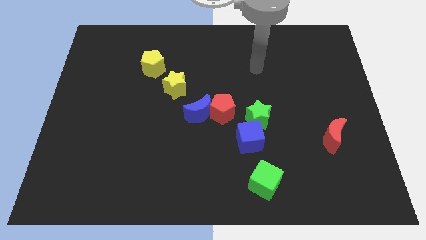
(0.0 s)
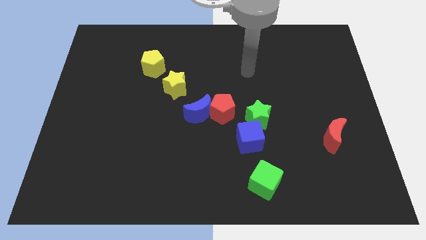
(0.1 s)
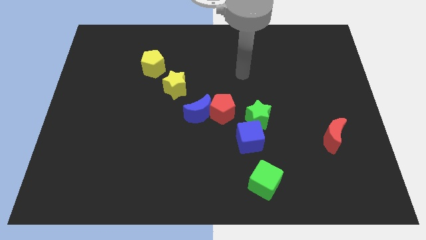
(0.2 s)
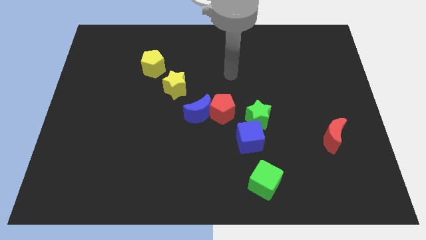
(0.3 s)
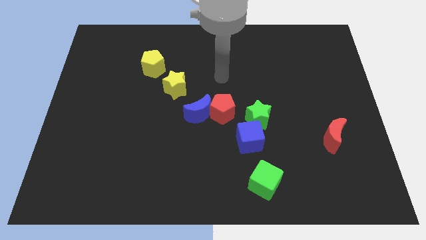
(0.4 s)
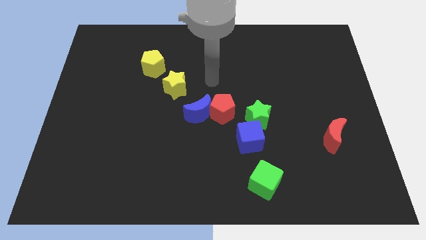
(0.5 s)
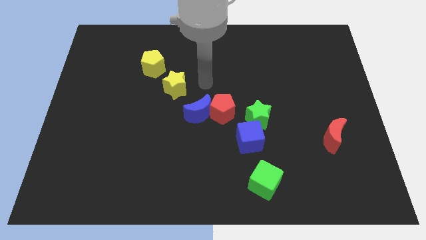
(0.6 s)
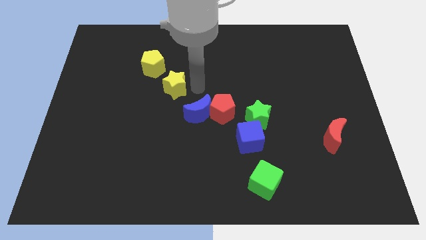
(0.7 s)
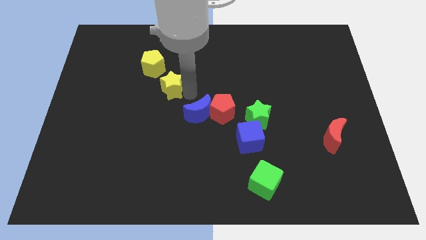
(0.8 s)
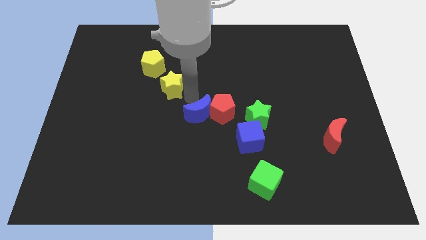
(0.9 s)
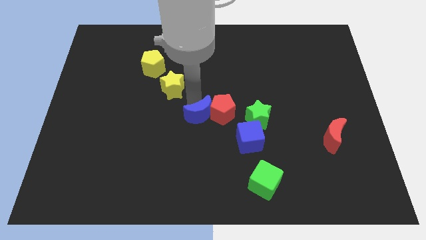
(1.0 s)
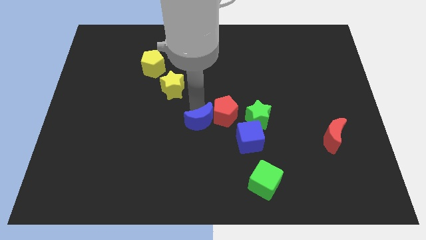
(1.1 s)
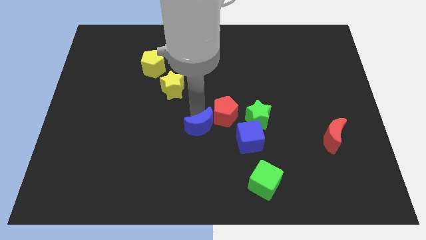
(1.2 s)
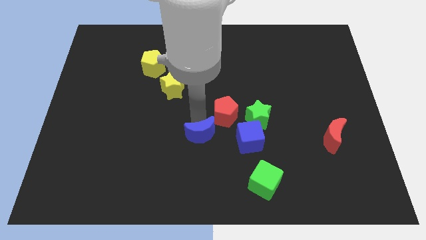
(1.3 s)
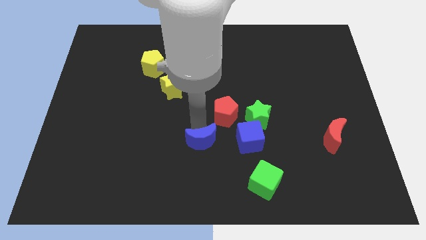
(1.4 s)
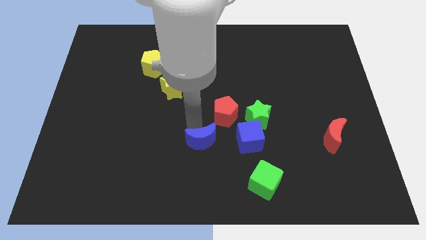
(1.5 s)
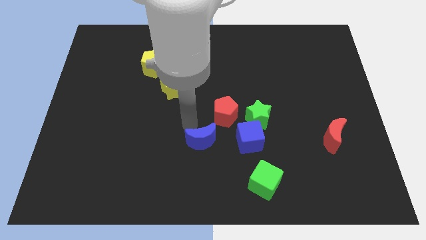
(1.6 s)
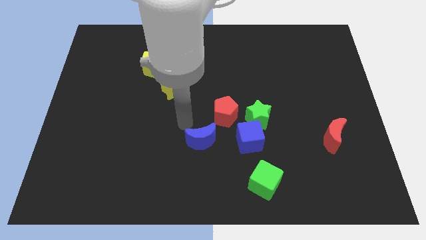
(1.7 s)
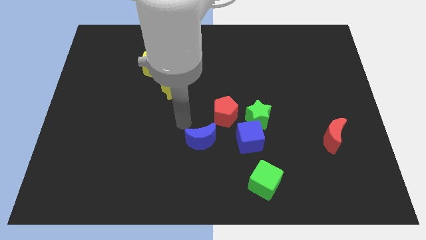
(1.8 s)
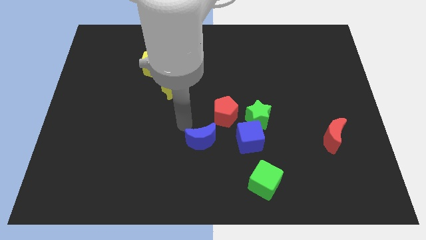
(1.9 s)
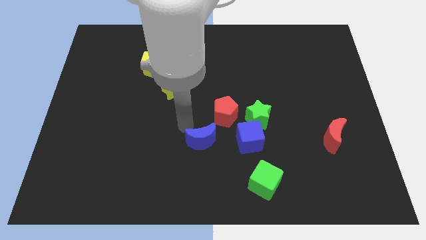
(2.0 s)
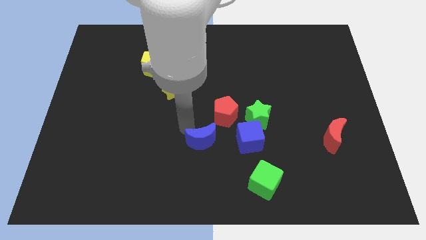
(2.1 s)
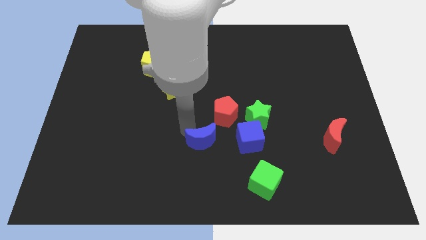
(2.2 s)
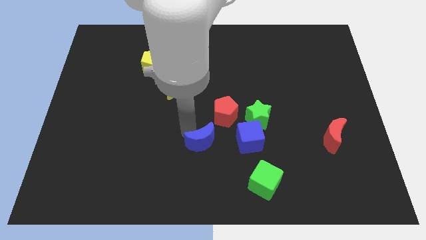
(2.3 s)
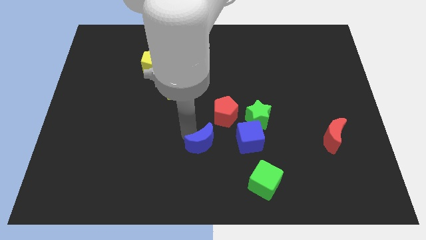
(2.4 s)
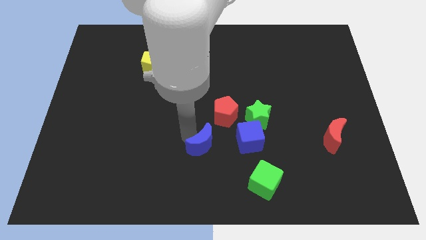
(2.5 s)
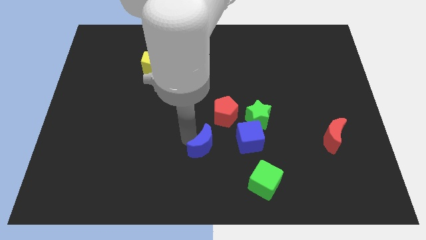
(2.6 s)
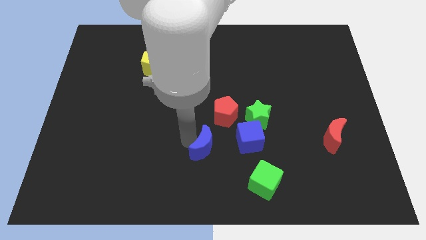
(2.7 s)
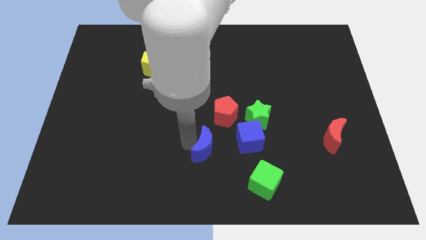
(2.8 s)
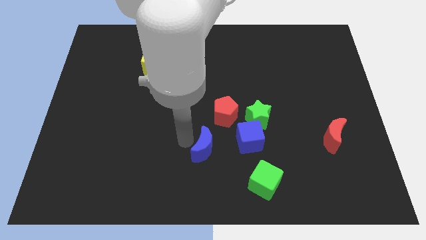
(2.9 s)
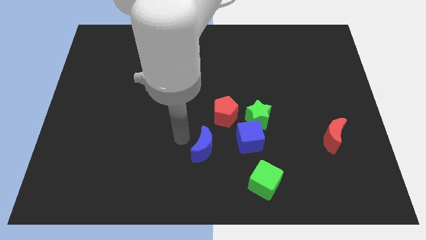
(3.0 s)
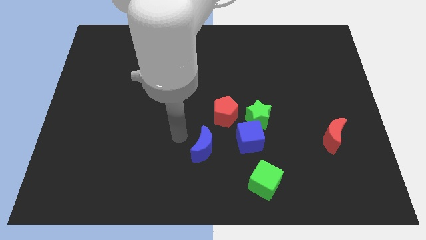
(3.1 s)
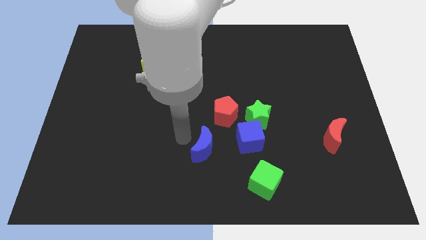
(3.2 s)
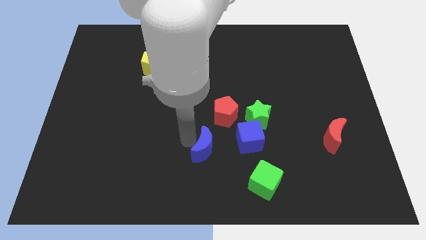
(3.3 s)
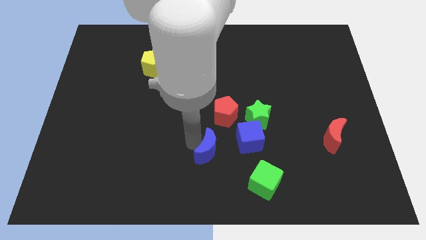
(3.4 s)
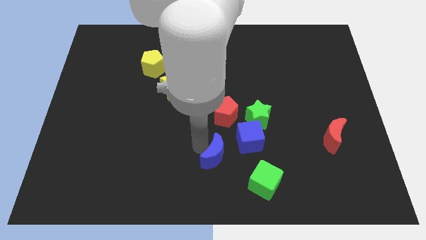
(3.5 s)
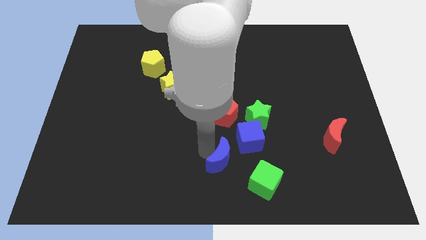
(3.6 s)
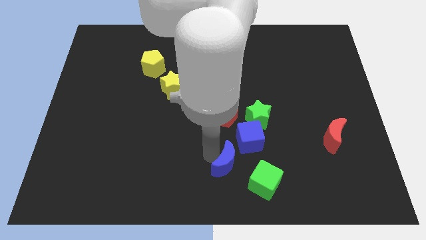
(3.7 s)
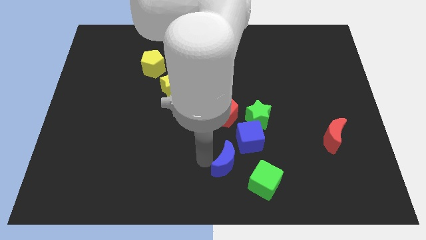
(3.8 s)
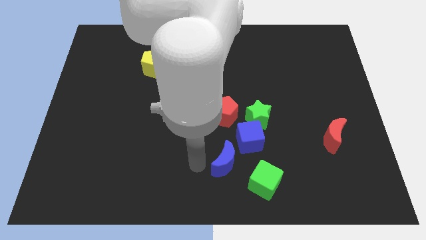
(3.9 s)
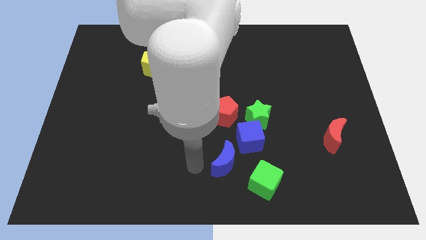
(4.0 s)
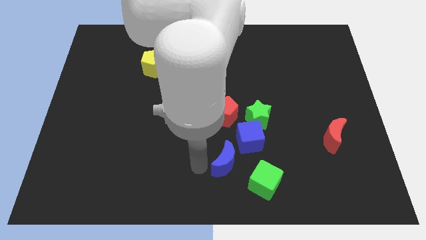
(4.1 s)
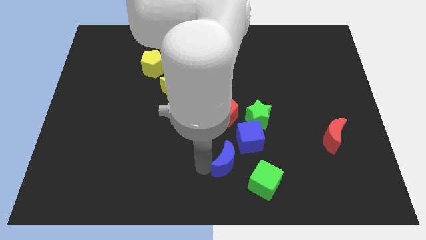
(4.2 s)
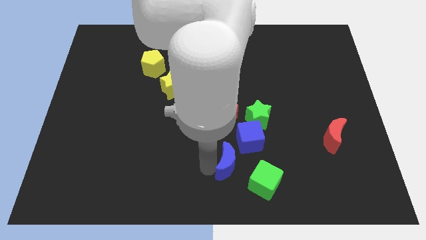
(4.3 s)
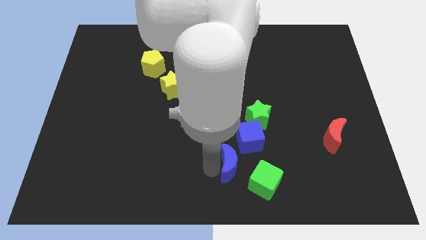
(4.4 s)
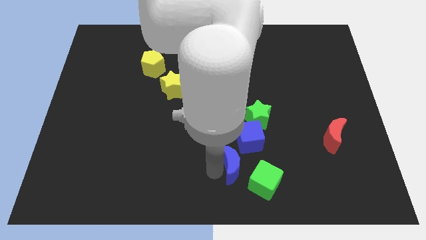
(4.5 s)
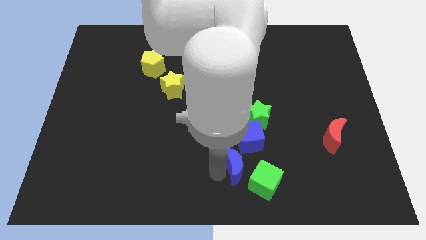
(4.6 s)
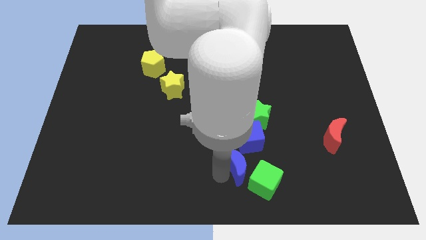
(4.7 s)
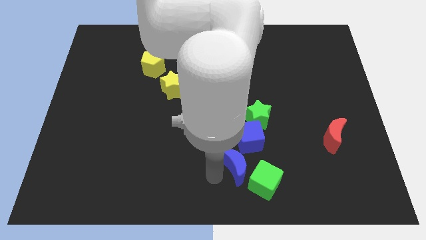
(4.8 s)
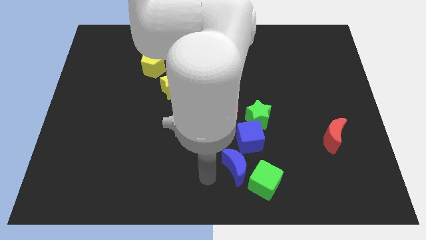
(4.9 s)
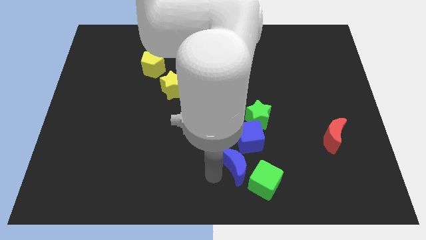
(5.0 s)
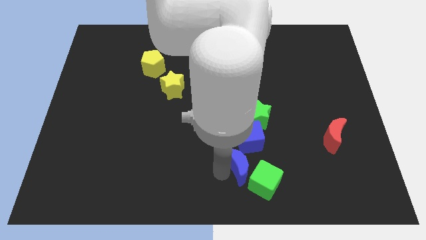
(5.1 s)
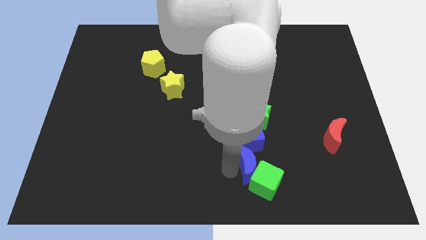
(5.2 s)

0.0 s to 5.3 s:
slide the blue moon to the bottom side of the green star

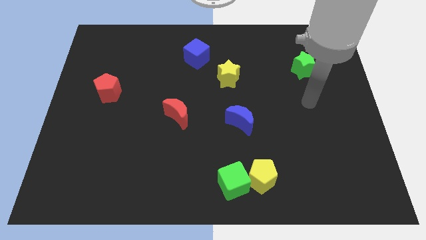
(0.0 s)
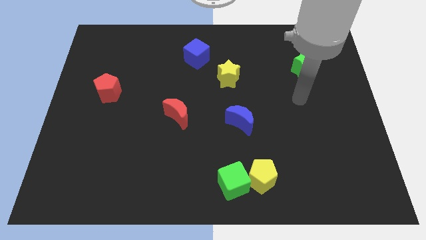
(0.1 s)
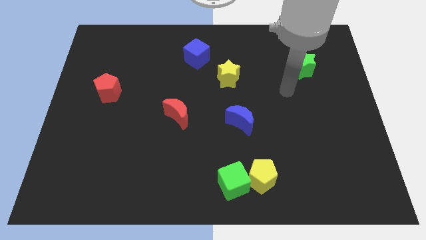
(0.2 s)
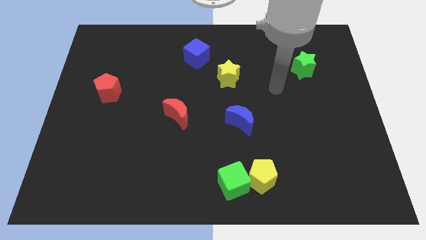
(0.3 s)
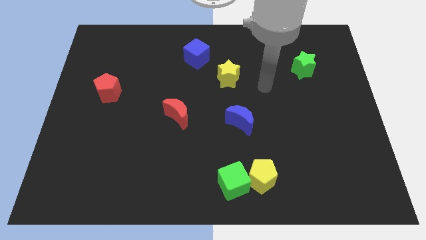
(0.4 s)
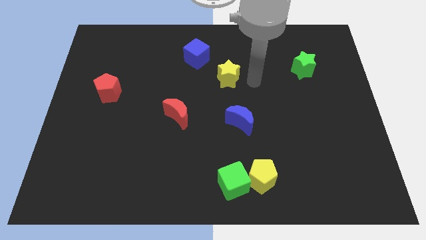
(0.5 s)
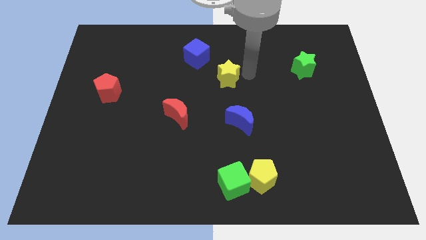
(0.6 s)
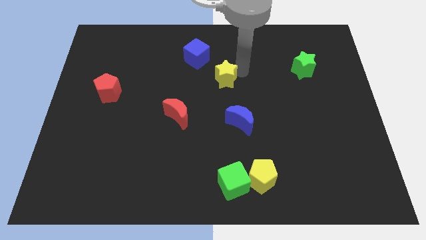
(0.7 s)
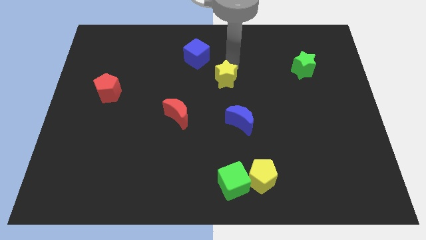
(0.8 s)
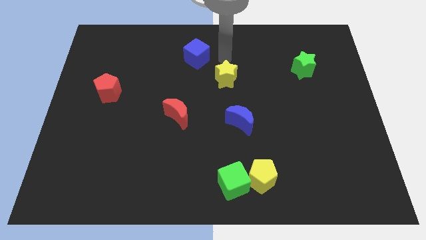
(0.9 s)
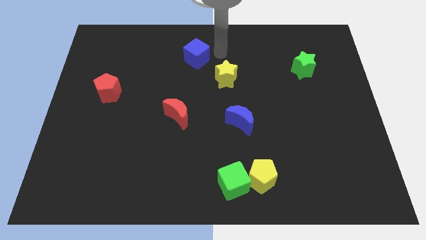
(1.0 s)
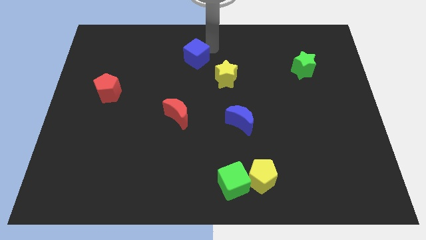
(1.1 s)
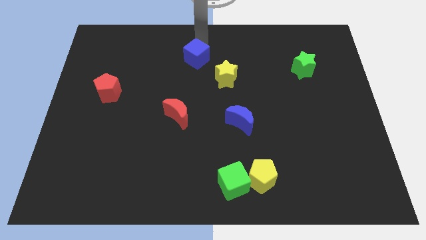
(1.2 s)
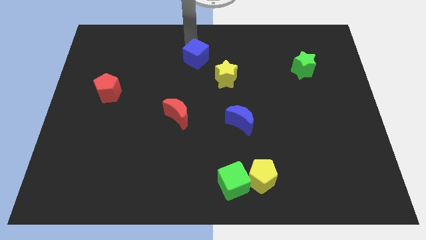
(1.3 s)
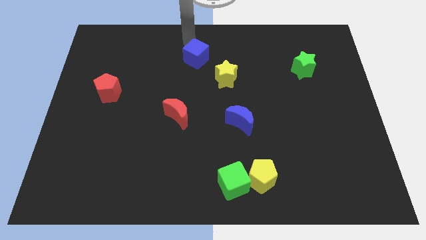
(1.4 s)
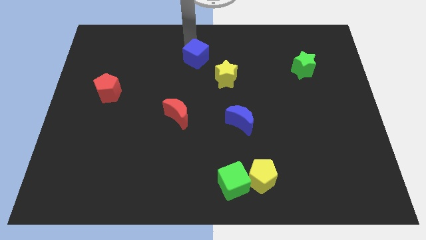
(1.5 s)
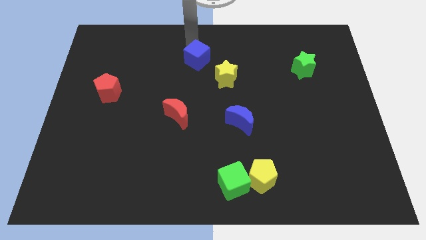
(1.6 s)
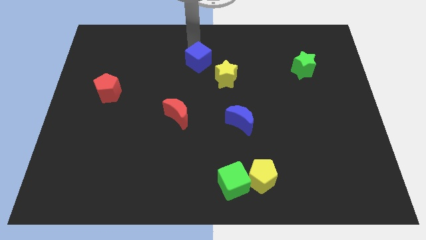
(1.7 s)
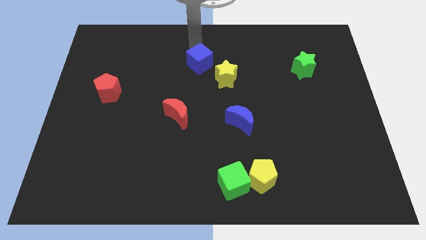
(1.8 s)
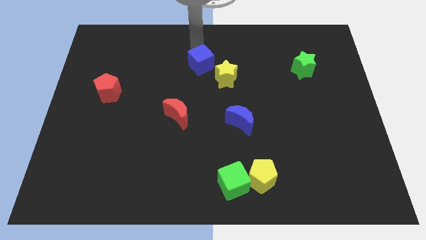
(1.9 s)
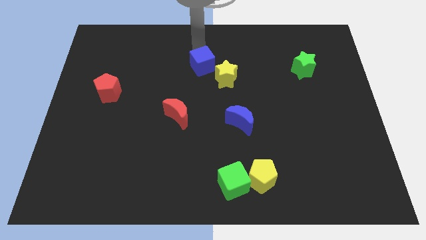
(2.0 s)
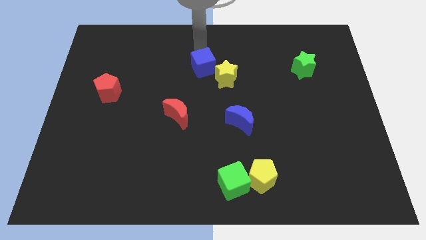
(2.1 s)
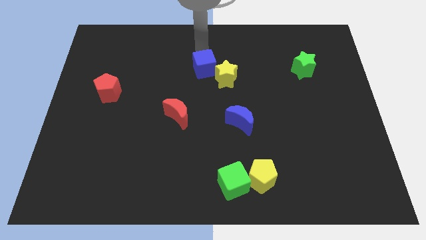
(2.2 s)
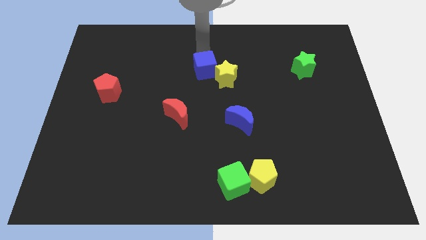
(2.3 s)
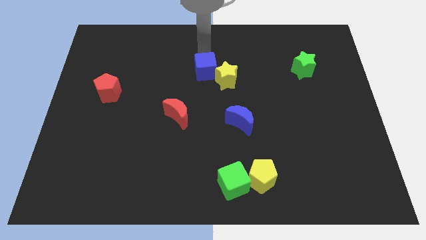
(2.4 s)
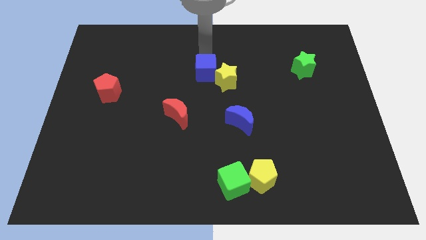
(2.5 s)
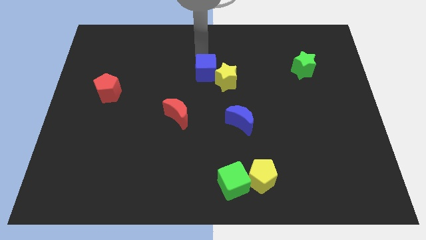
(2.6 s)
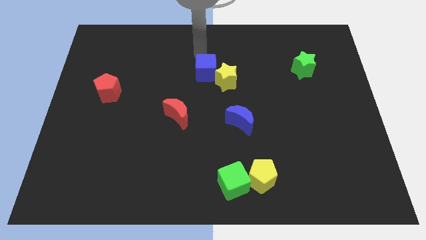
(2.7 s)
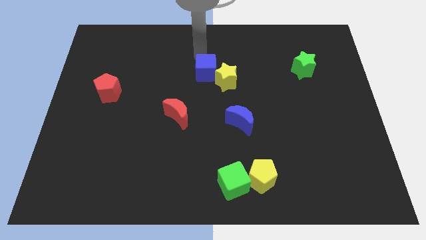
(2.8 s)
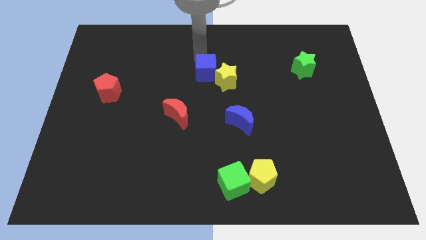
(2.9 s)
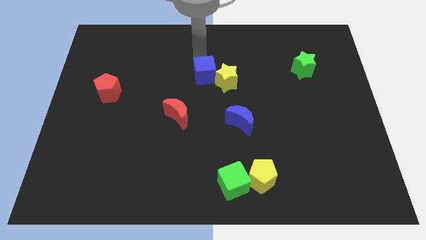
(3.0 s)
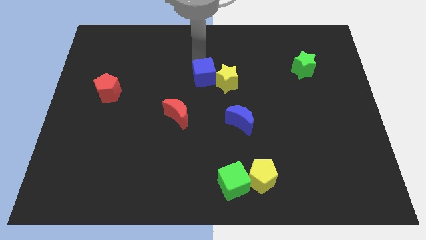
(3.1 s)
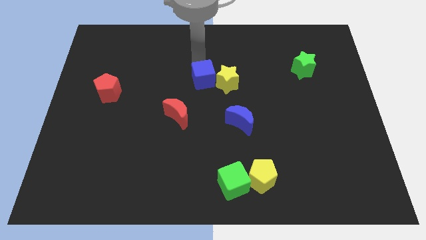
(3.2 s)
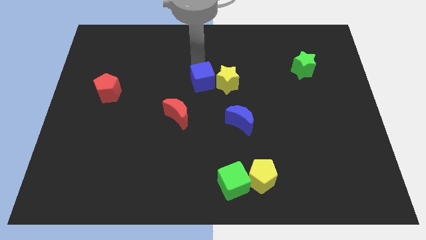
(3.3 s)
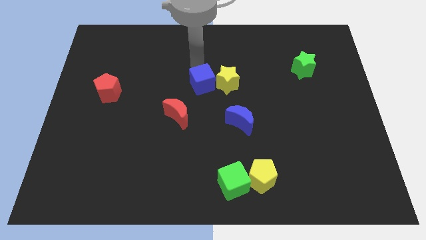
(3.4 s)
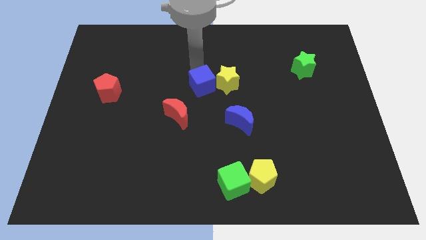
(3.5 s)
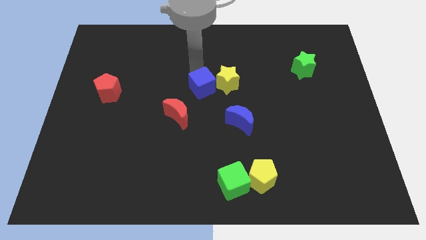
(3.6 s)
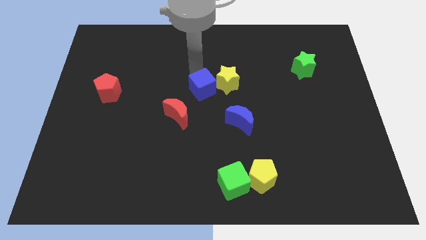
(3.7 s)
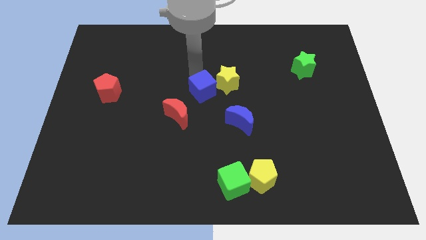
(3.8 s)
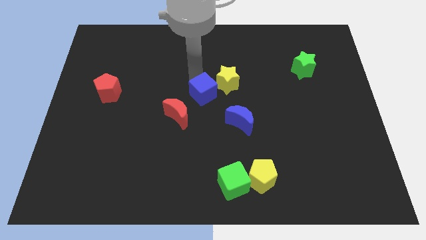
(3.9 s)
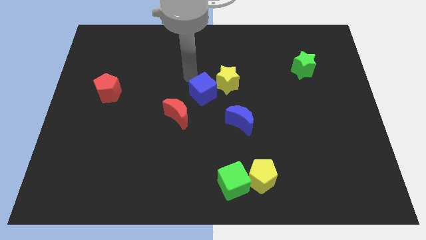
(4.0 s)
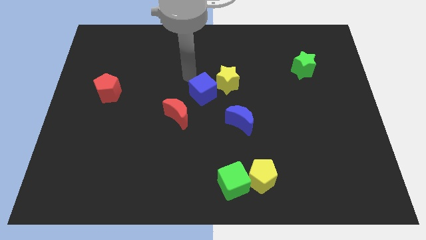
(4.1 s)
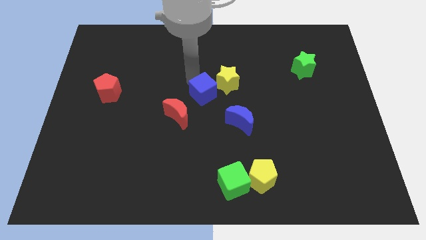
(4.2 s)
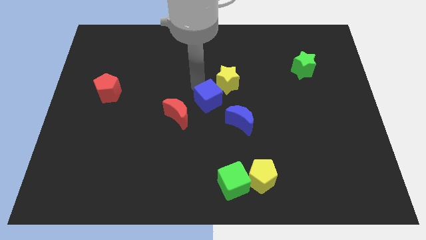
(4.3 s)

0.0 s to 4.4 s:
put the blue cube right of the red moon
